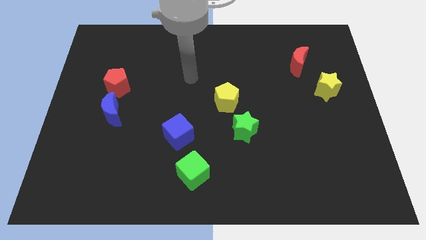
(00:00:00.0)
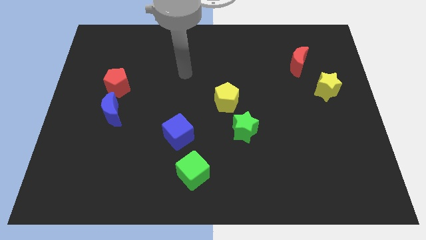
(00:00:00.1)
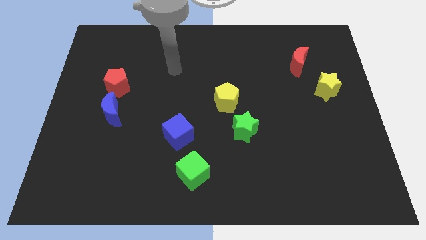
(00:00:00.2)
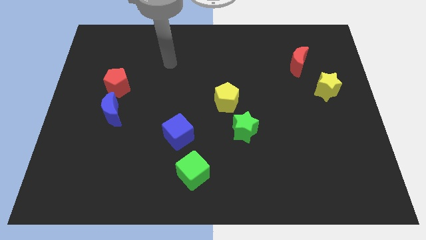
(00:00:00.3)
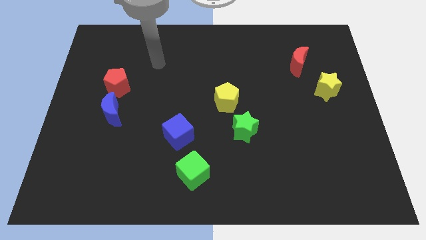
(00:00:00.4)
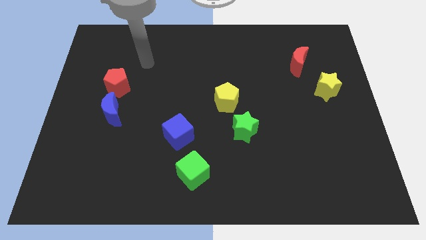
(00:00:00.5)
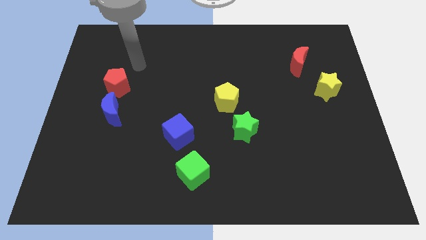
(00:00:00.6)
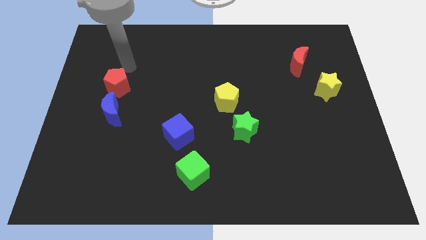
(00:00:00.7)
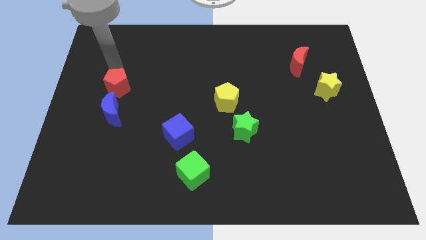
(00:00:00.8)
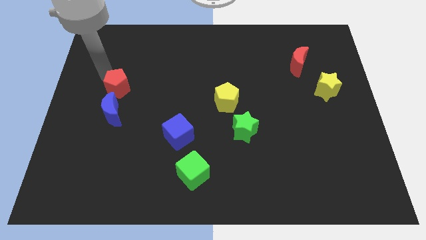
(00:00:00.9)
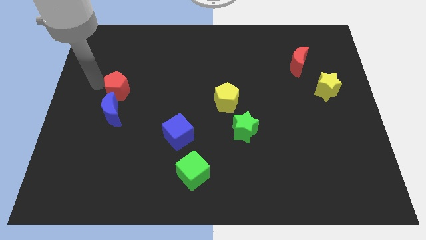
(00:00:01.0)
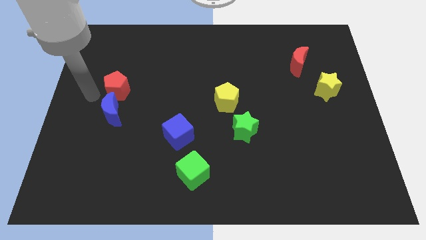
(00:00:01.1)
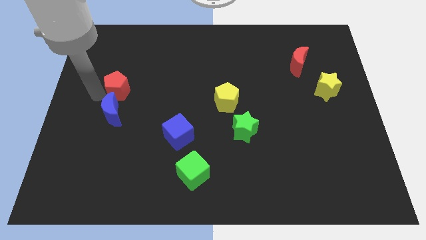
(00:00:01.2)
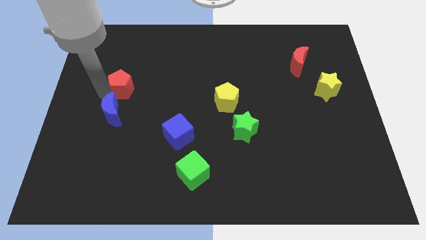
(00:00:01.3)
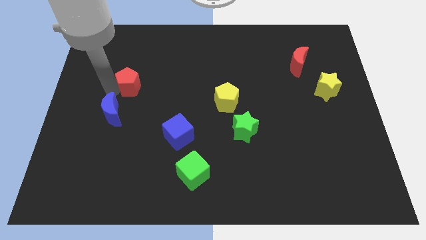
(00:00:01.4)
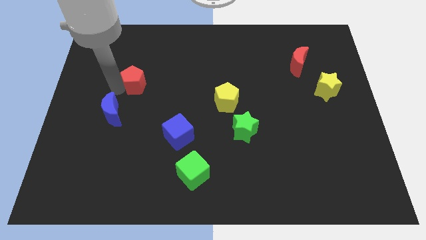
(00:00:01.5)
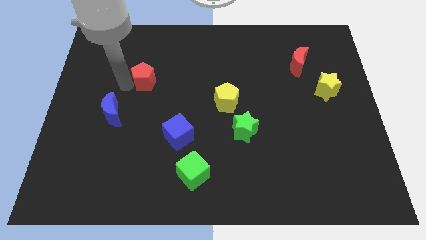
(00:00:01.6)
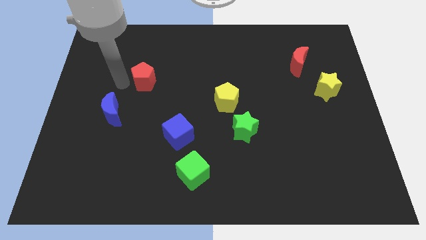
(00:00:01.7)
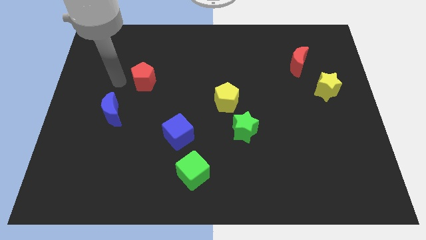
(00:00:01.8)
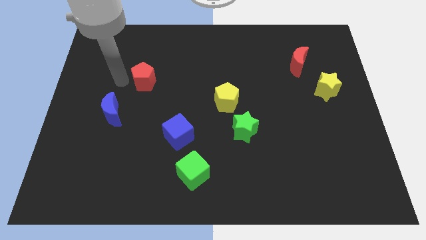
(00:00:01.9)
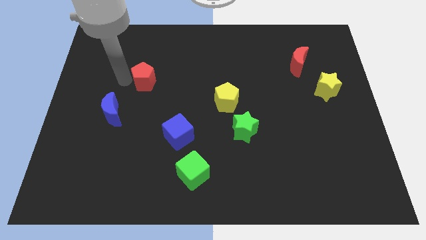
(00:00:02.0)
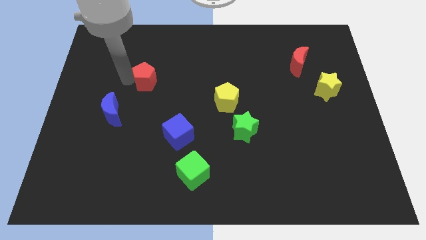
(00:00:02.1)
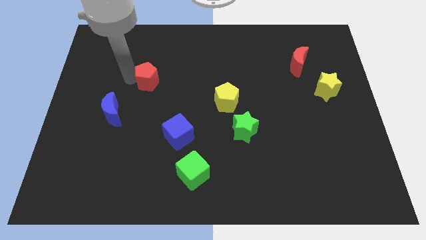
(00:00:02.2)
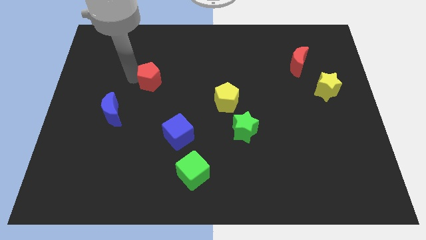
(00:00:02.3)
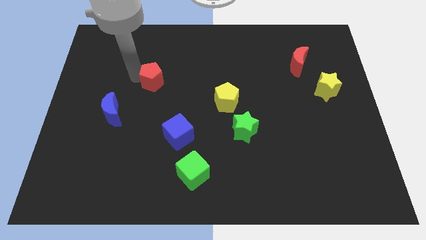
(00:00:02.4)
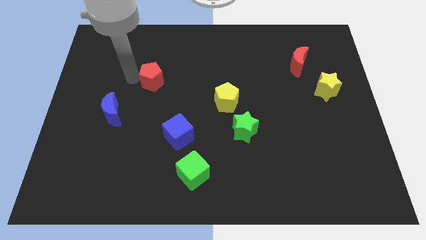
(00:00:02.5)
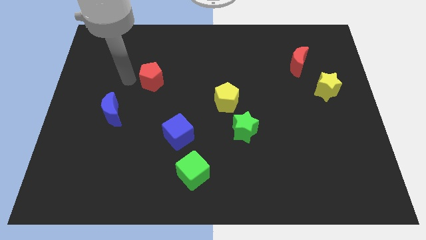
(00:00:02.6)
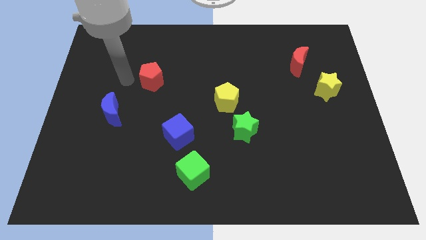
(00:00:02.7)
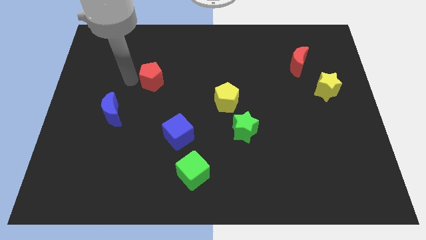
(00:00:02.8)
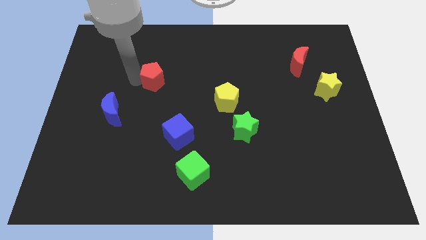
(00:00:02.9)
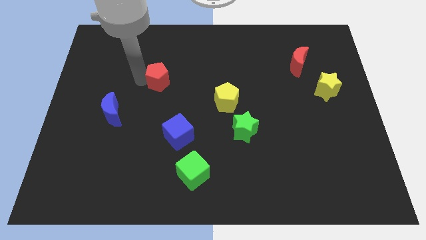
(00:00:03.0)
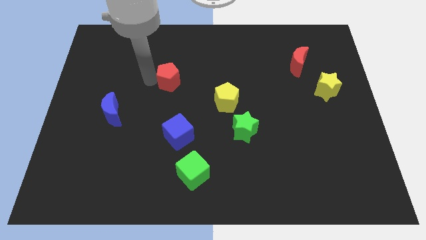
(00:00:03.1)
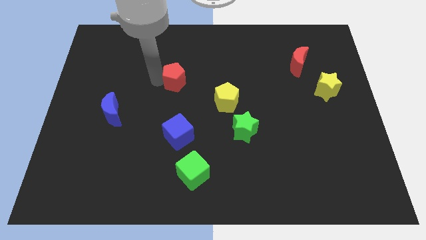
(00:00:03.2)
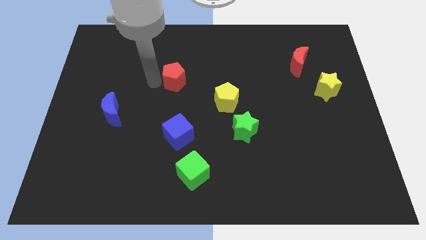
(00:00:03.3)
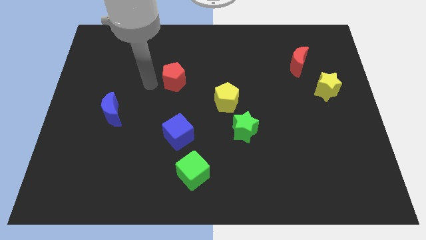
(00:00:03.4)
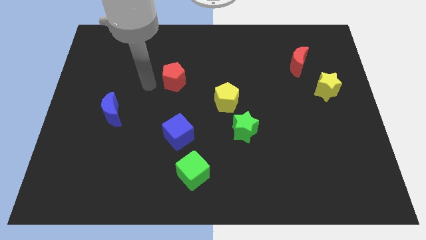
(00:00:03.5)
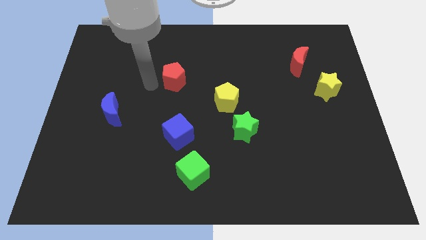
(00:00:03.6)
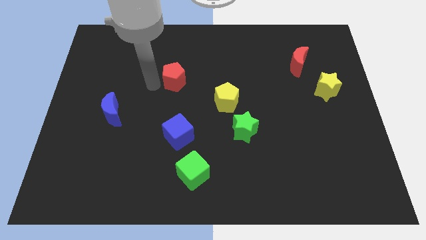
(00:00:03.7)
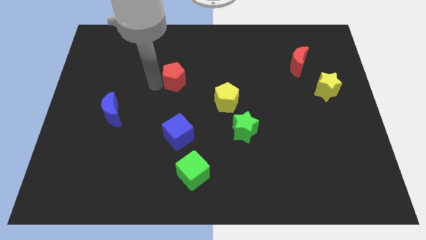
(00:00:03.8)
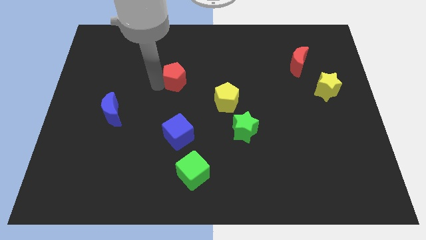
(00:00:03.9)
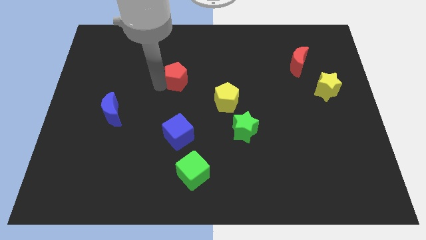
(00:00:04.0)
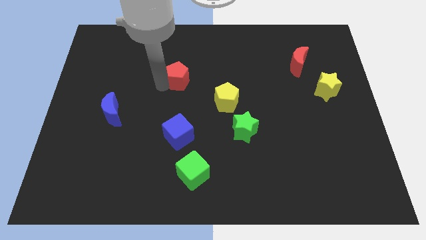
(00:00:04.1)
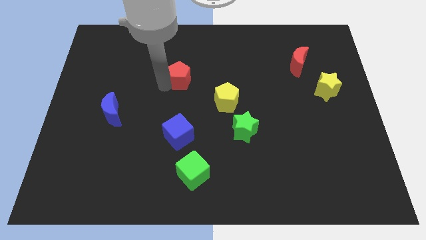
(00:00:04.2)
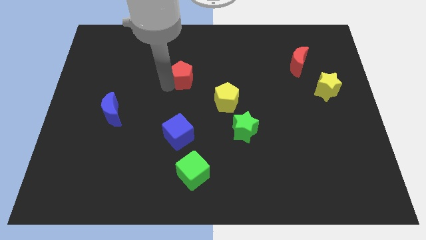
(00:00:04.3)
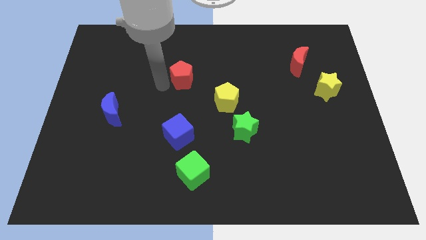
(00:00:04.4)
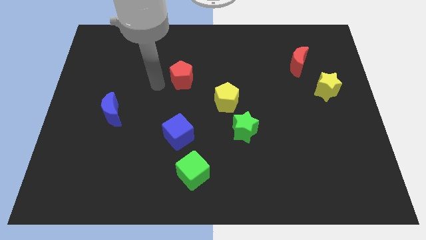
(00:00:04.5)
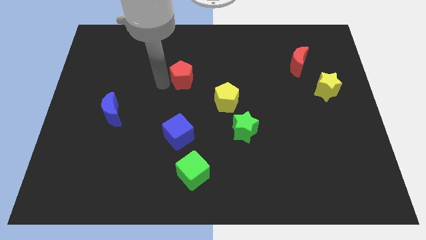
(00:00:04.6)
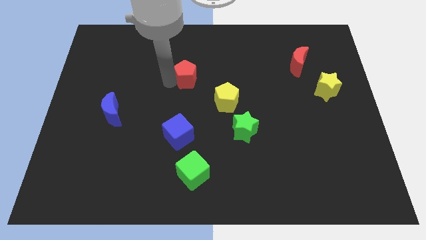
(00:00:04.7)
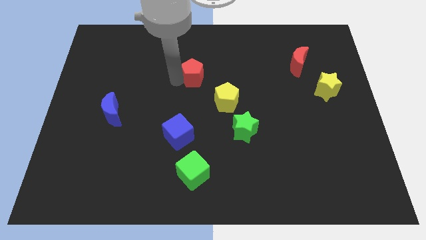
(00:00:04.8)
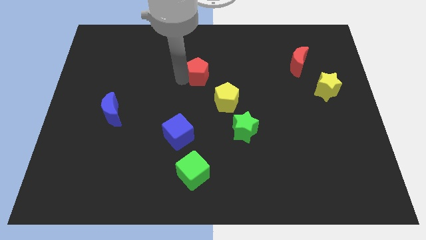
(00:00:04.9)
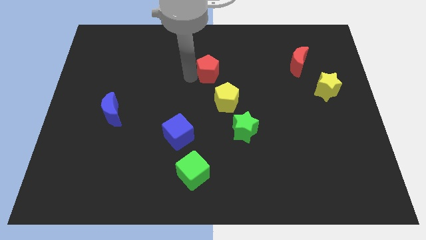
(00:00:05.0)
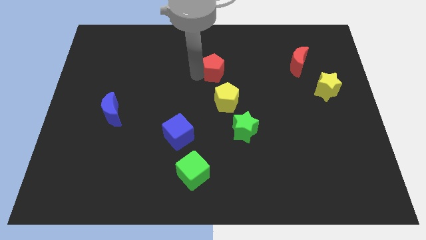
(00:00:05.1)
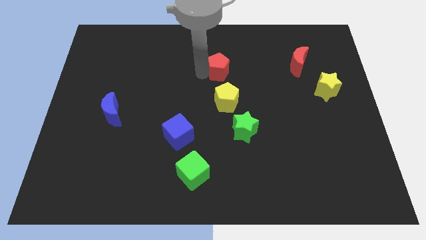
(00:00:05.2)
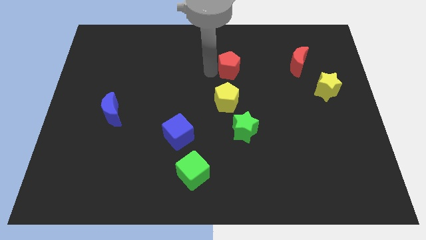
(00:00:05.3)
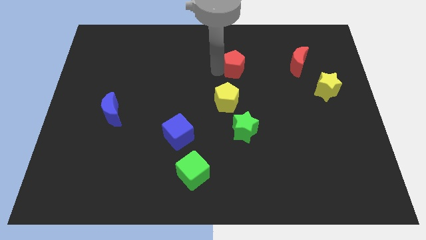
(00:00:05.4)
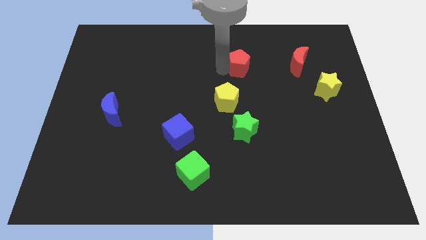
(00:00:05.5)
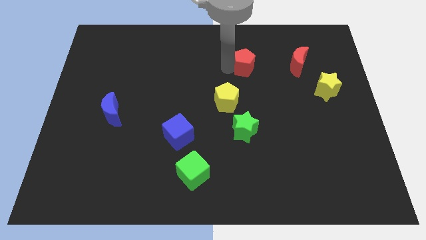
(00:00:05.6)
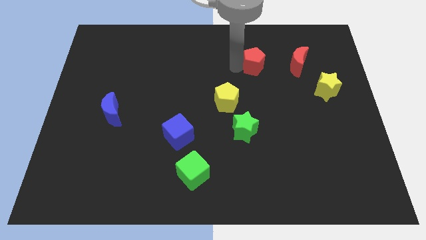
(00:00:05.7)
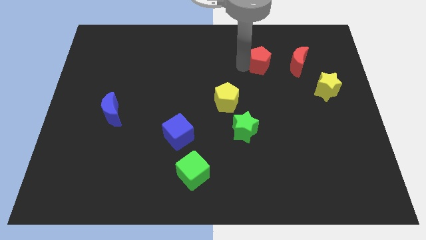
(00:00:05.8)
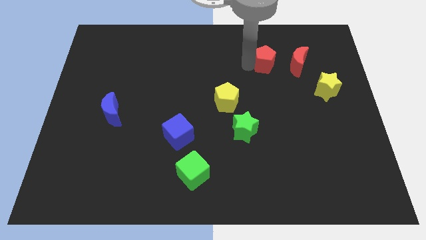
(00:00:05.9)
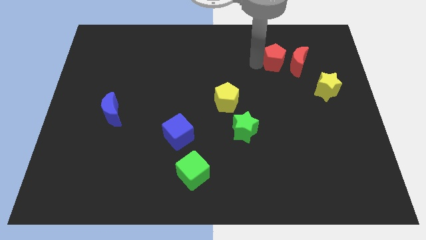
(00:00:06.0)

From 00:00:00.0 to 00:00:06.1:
put the red pentagon towards the red moon

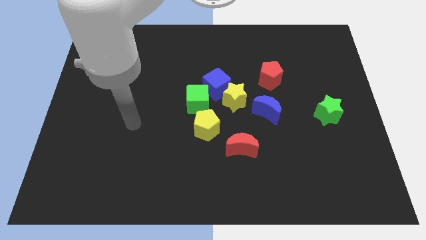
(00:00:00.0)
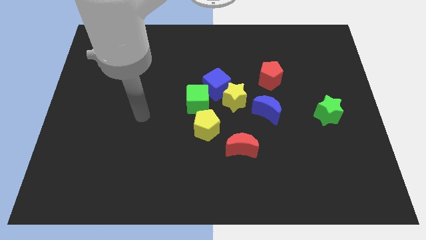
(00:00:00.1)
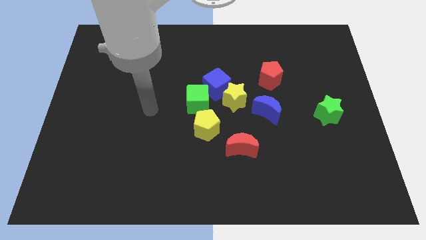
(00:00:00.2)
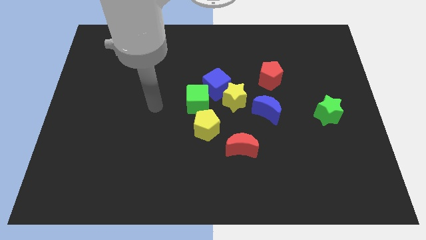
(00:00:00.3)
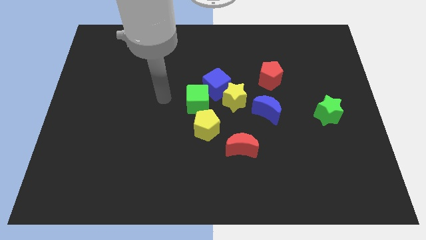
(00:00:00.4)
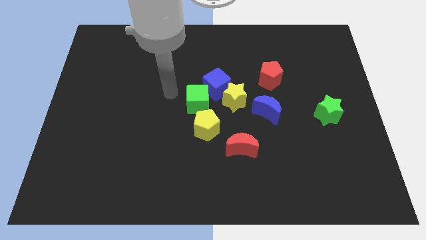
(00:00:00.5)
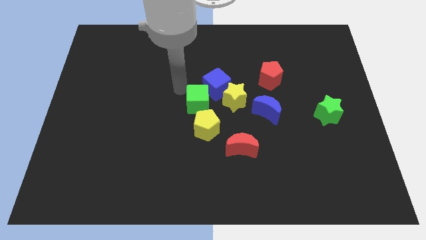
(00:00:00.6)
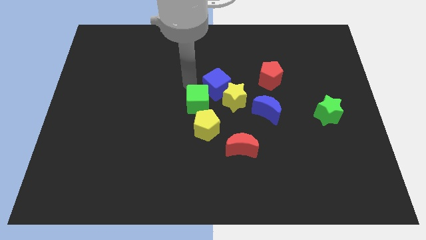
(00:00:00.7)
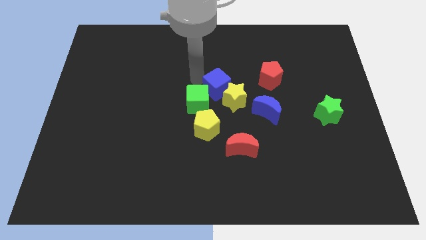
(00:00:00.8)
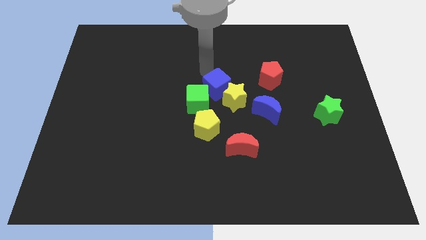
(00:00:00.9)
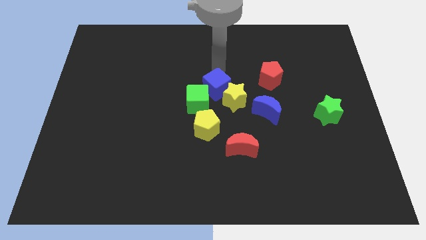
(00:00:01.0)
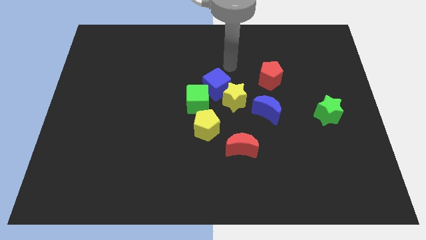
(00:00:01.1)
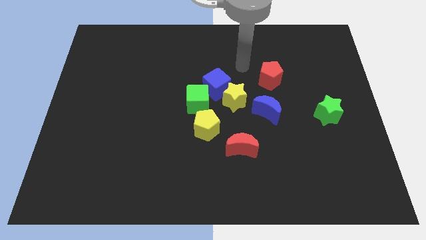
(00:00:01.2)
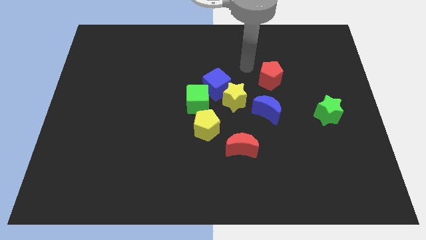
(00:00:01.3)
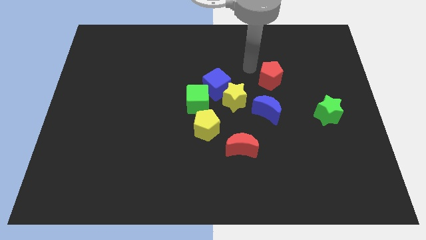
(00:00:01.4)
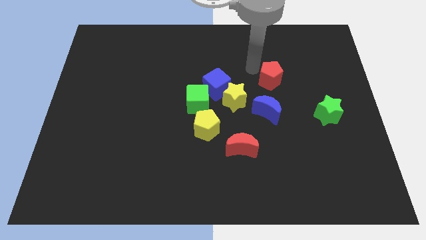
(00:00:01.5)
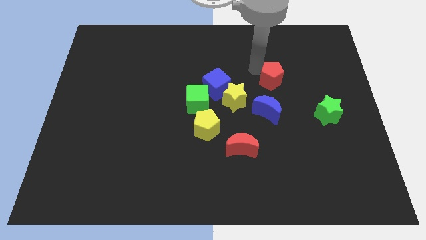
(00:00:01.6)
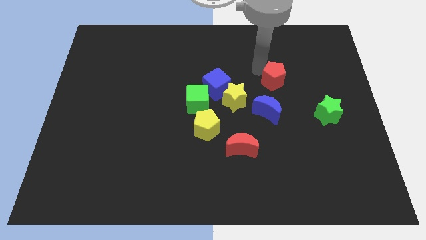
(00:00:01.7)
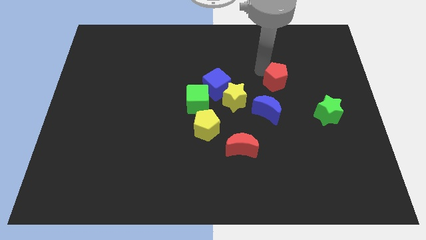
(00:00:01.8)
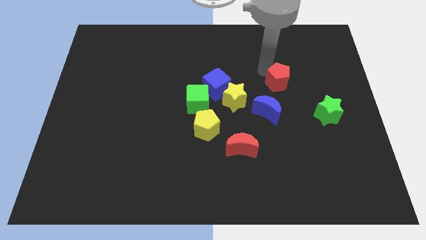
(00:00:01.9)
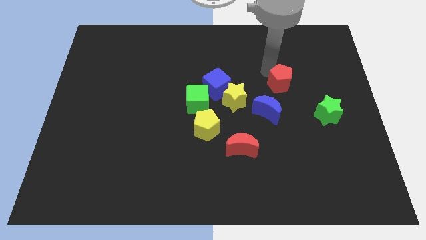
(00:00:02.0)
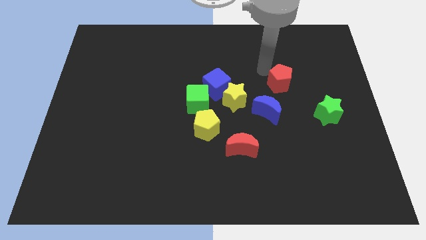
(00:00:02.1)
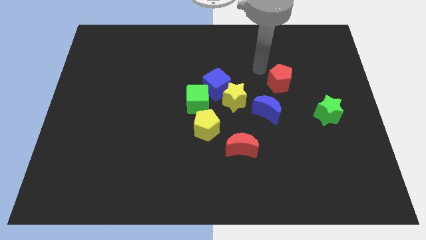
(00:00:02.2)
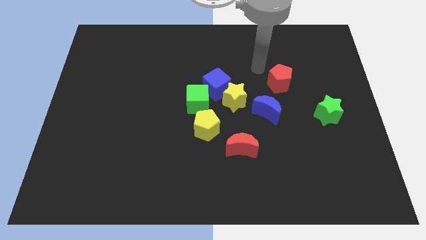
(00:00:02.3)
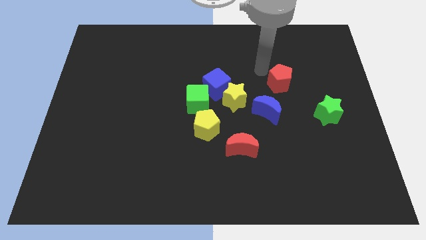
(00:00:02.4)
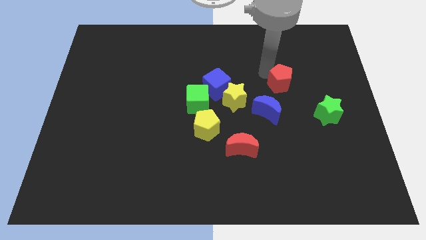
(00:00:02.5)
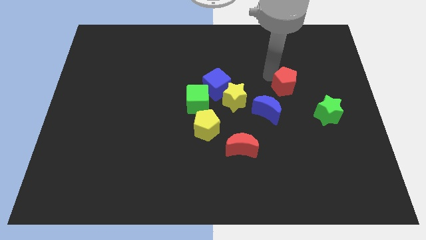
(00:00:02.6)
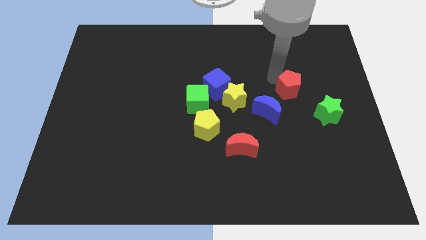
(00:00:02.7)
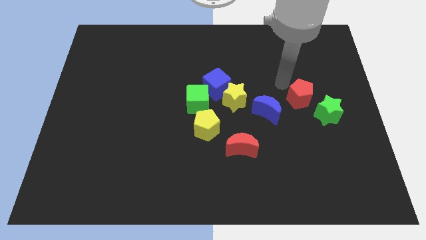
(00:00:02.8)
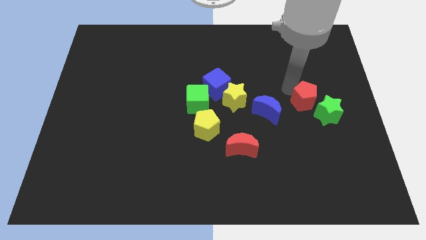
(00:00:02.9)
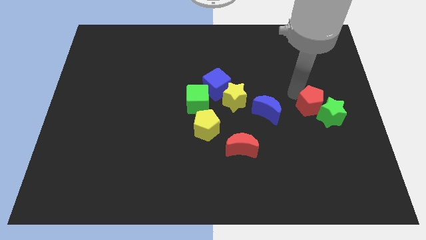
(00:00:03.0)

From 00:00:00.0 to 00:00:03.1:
push the red pentagon to the green star
